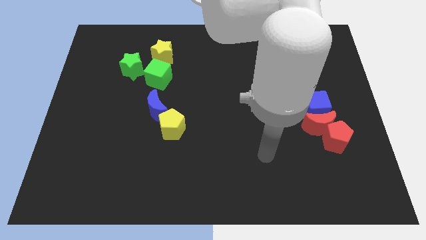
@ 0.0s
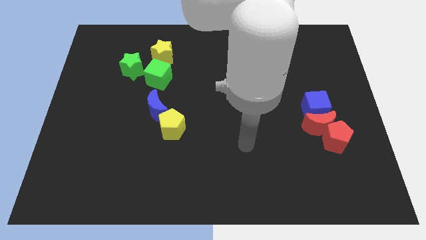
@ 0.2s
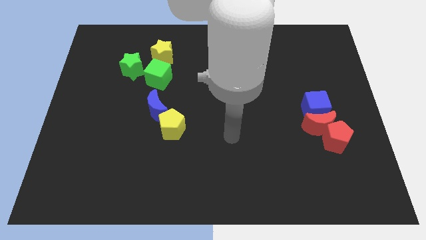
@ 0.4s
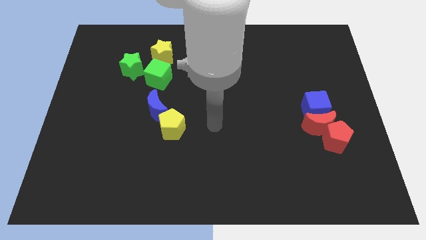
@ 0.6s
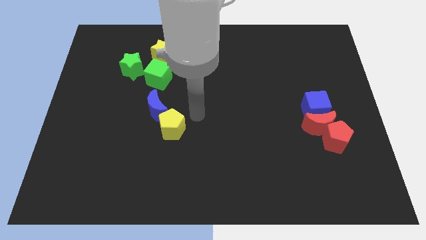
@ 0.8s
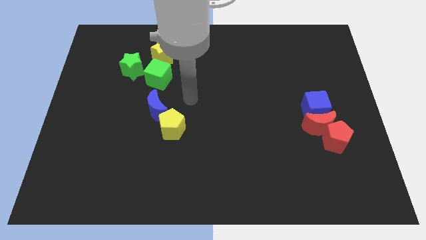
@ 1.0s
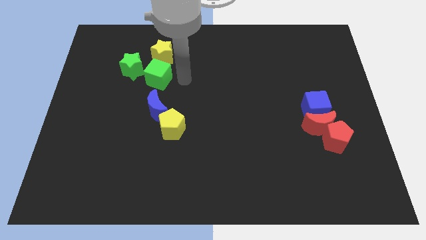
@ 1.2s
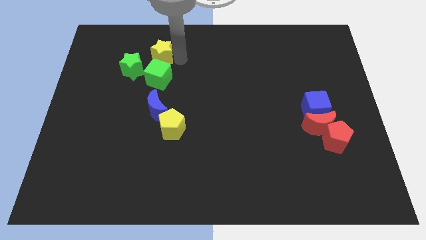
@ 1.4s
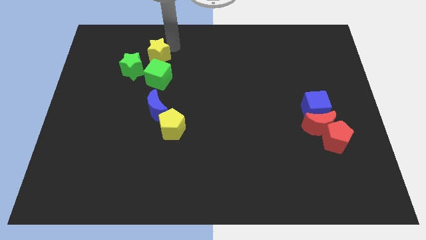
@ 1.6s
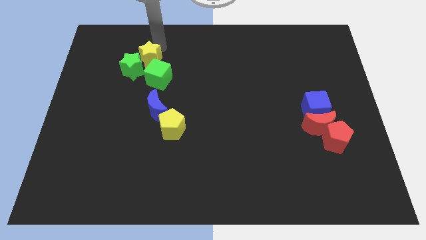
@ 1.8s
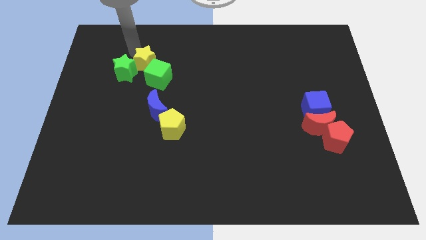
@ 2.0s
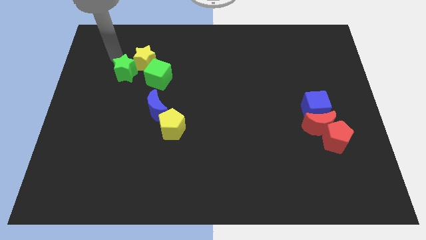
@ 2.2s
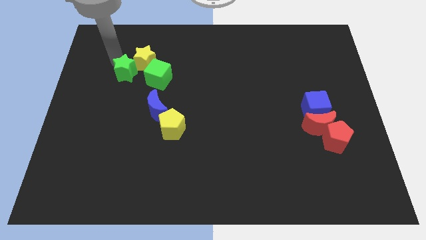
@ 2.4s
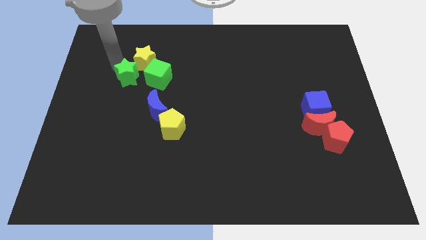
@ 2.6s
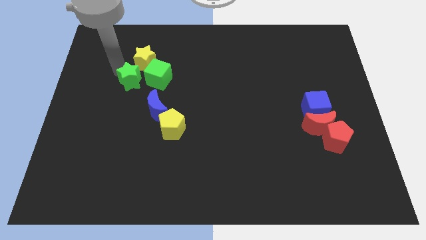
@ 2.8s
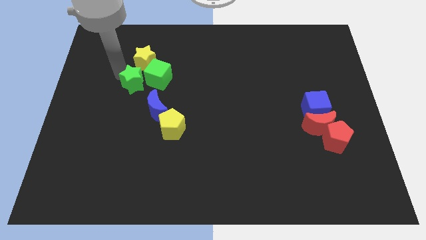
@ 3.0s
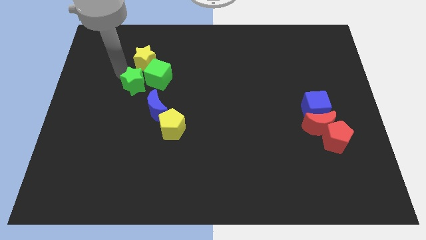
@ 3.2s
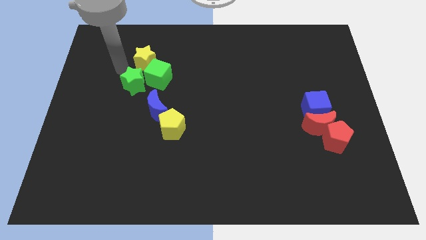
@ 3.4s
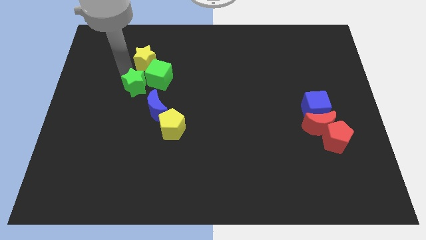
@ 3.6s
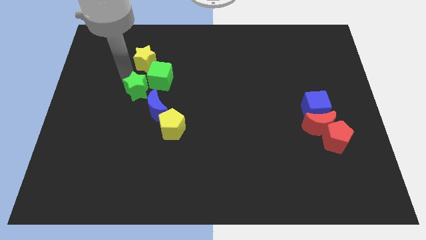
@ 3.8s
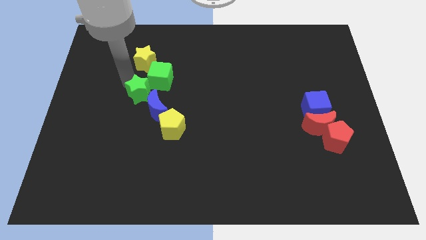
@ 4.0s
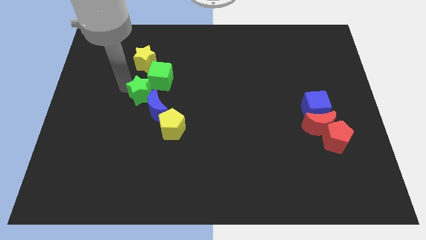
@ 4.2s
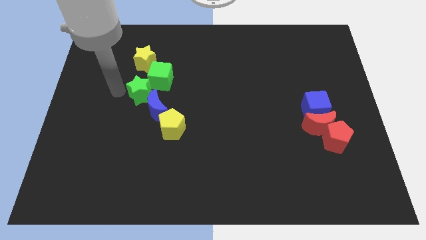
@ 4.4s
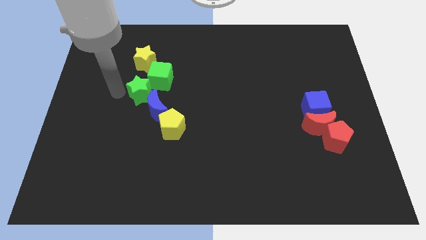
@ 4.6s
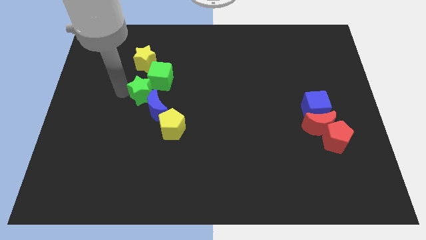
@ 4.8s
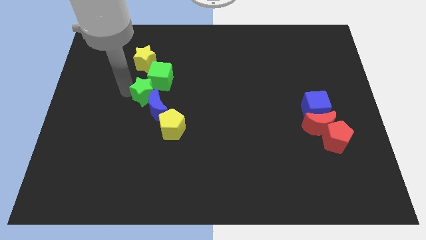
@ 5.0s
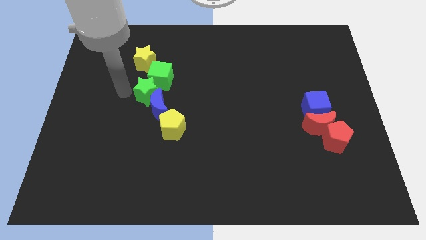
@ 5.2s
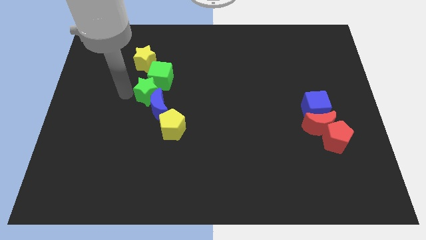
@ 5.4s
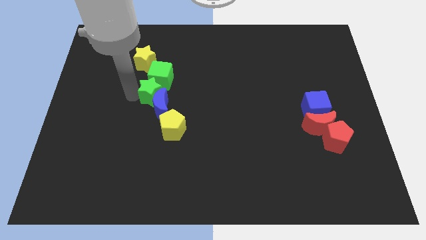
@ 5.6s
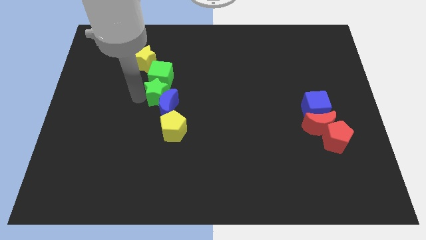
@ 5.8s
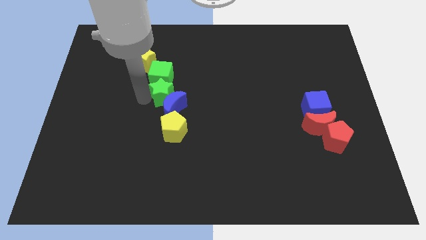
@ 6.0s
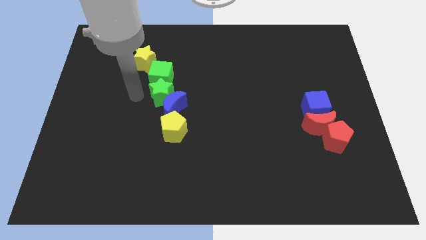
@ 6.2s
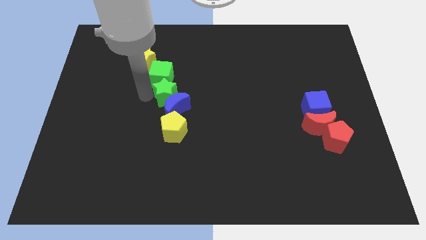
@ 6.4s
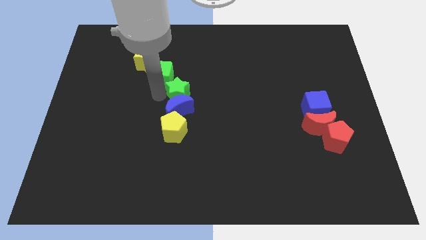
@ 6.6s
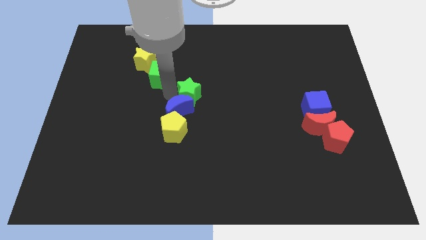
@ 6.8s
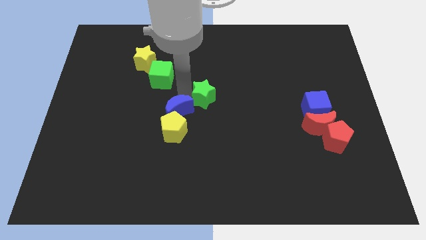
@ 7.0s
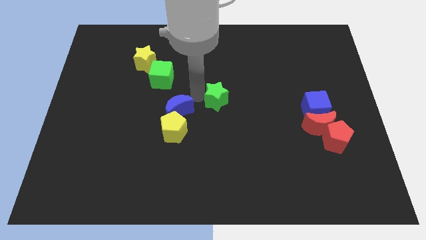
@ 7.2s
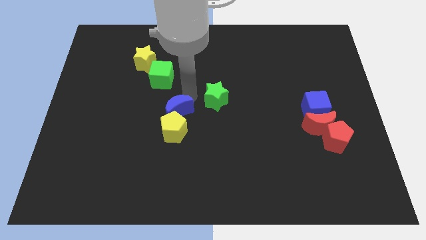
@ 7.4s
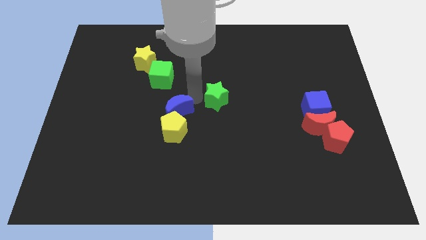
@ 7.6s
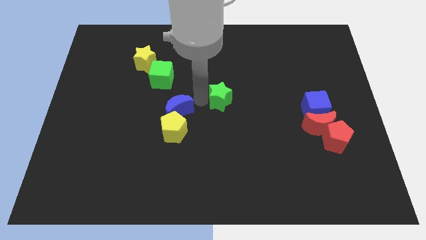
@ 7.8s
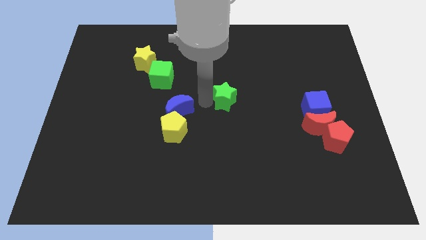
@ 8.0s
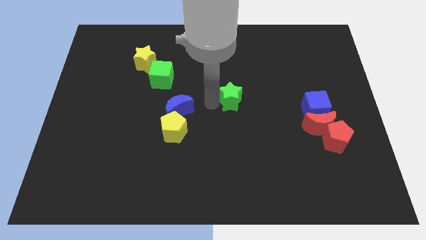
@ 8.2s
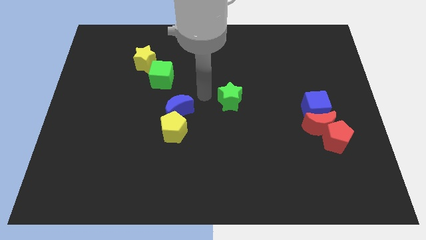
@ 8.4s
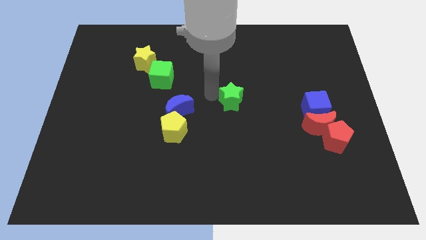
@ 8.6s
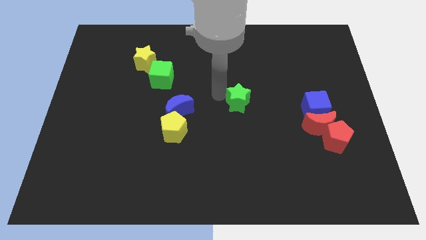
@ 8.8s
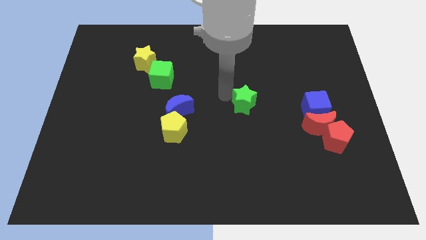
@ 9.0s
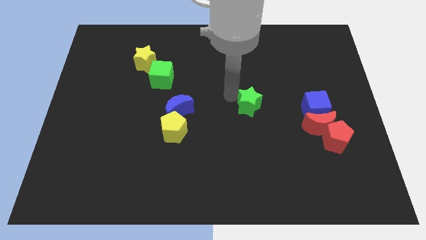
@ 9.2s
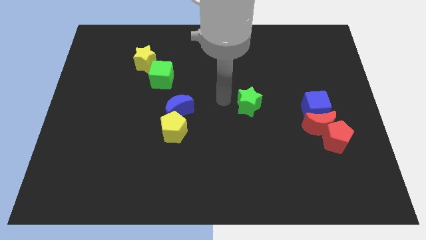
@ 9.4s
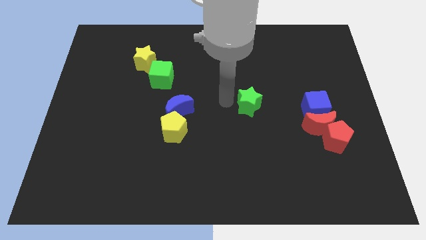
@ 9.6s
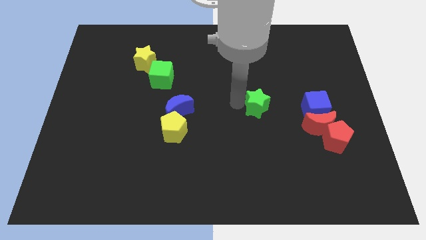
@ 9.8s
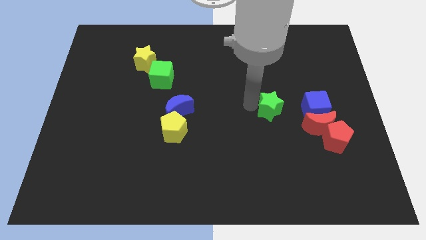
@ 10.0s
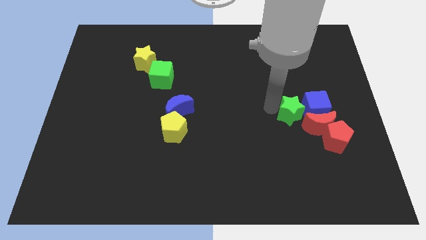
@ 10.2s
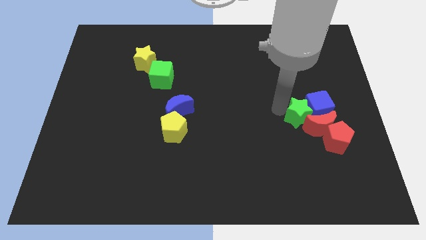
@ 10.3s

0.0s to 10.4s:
put the green star next to the red moon

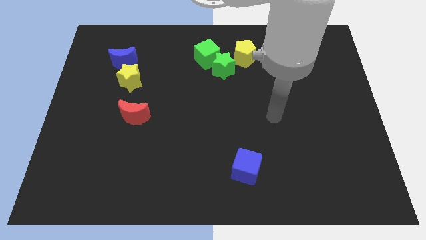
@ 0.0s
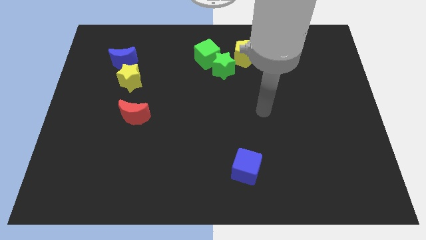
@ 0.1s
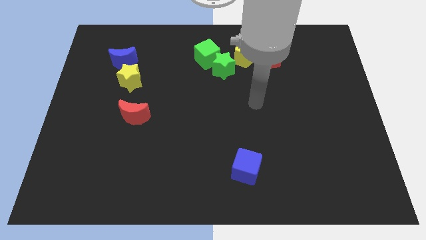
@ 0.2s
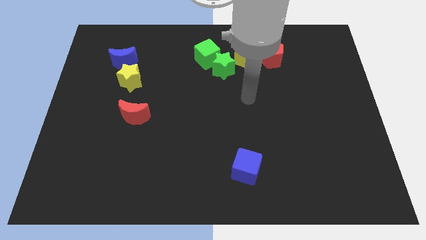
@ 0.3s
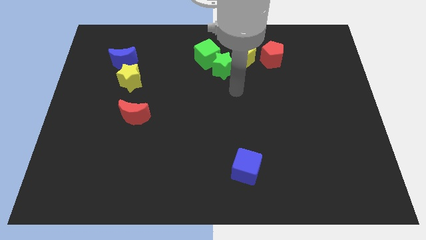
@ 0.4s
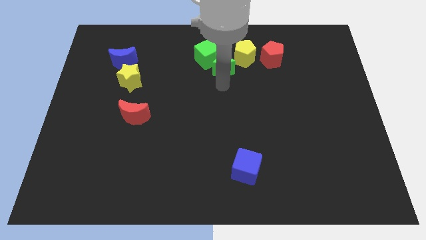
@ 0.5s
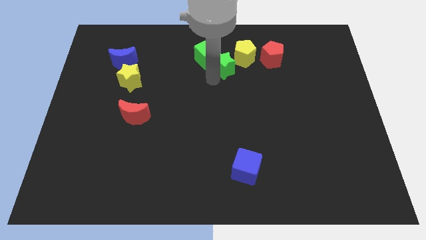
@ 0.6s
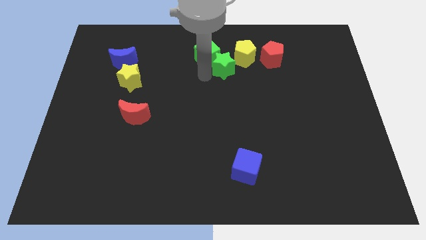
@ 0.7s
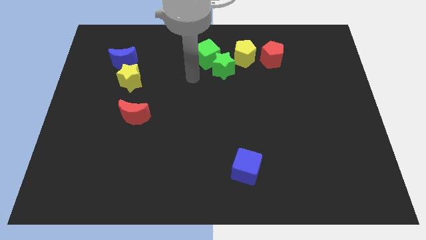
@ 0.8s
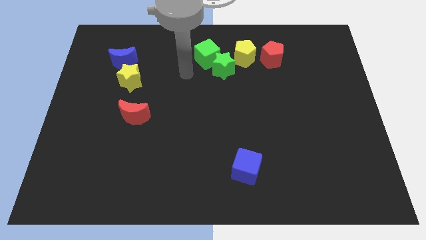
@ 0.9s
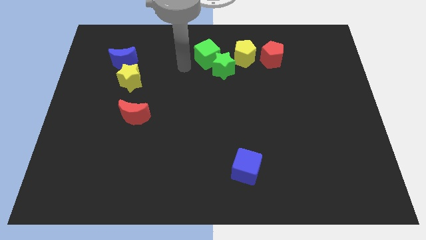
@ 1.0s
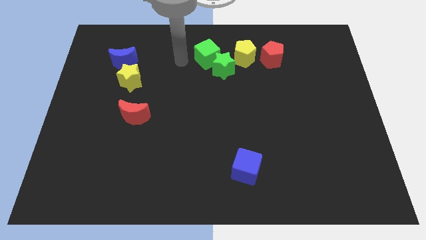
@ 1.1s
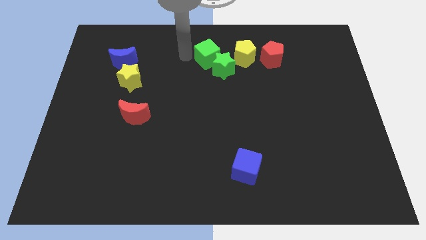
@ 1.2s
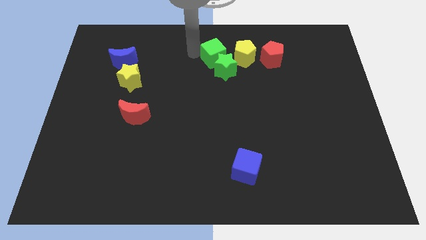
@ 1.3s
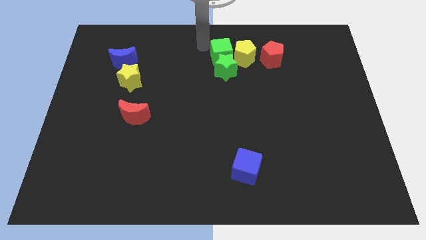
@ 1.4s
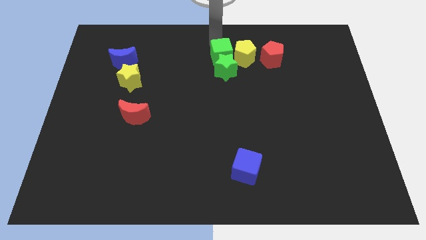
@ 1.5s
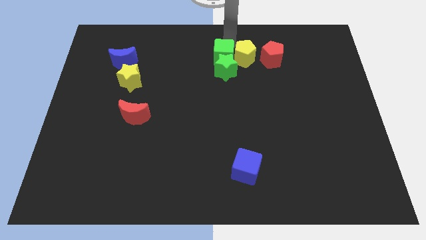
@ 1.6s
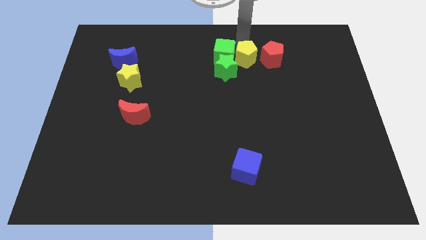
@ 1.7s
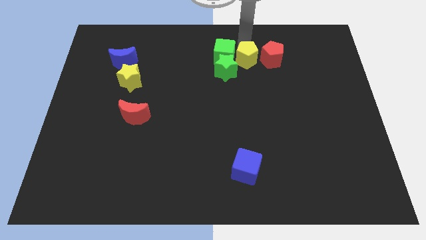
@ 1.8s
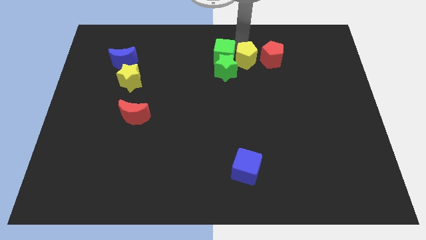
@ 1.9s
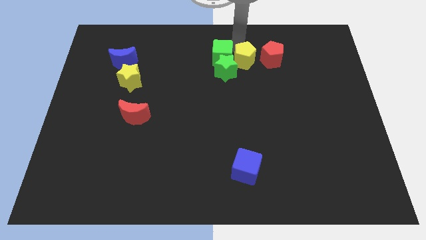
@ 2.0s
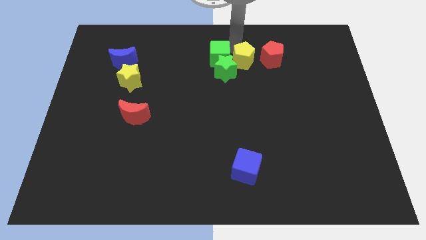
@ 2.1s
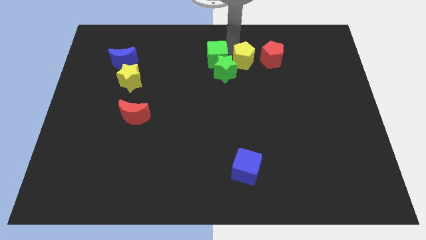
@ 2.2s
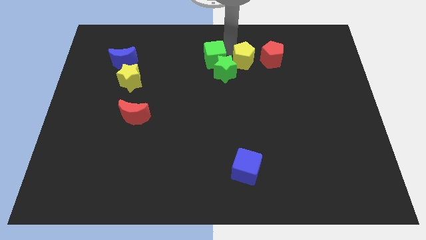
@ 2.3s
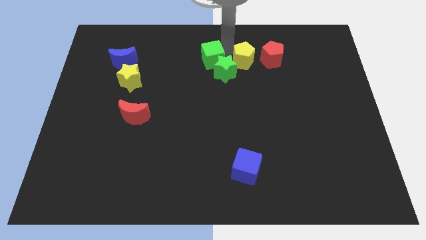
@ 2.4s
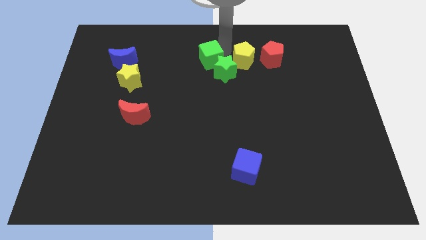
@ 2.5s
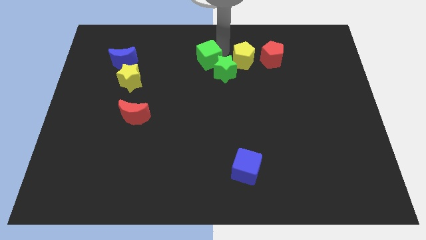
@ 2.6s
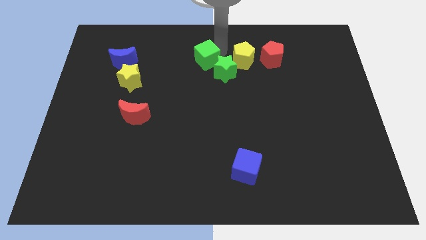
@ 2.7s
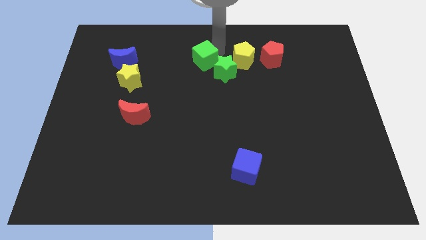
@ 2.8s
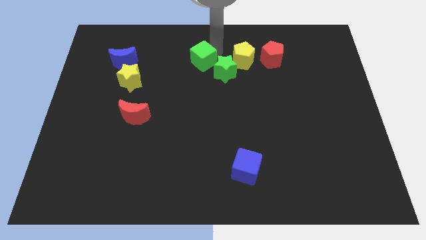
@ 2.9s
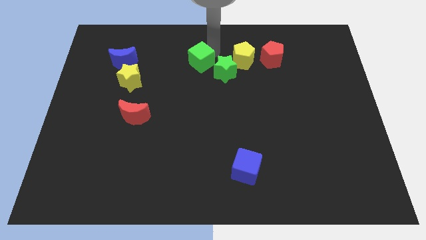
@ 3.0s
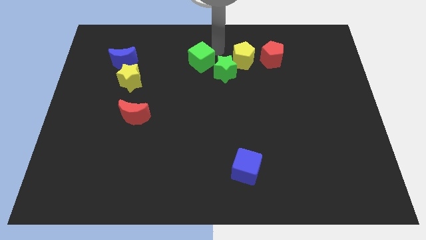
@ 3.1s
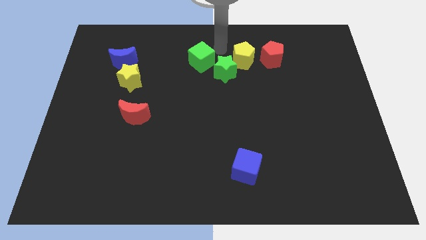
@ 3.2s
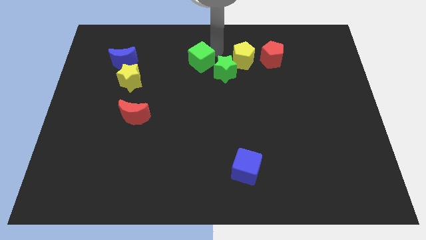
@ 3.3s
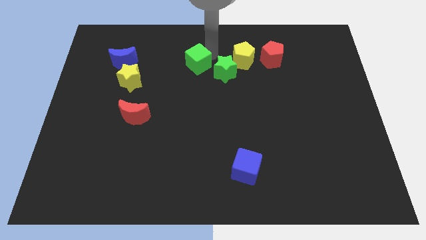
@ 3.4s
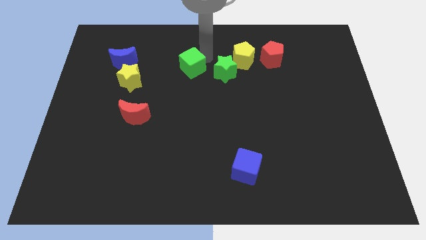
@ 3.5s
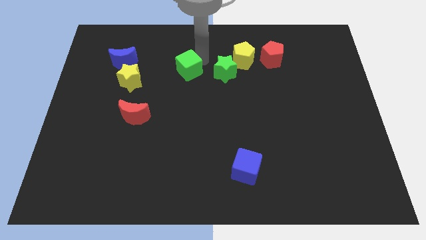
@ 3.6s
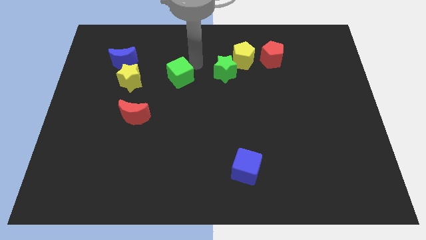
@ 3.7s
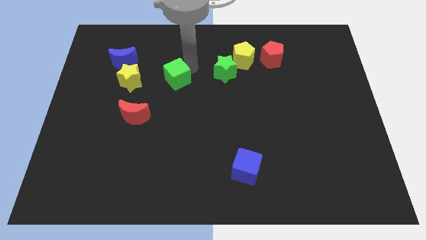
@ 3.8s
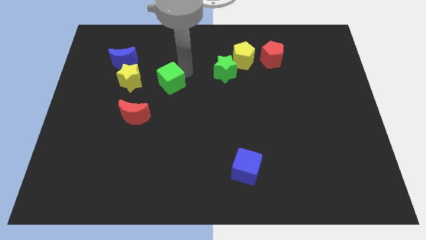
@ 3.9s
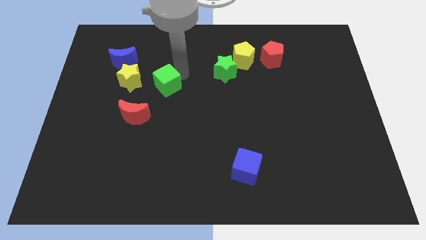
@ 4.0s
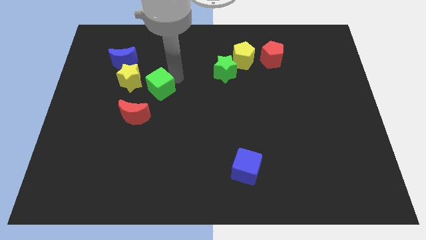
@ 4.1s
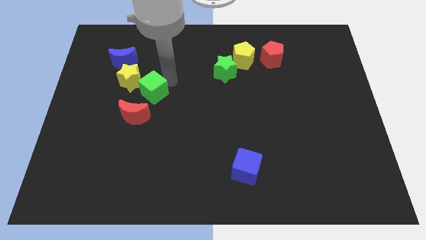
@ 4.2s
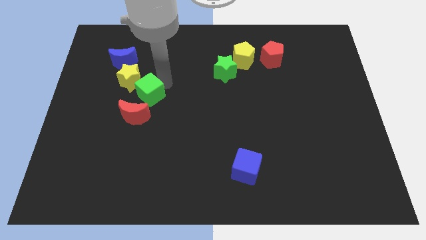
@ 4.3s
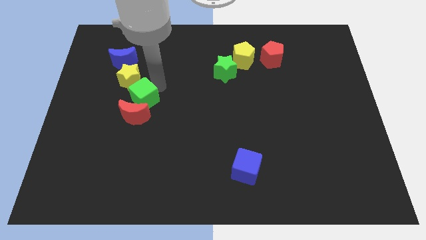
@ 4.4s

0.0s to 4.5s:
slide the green cube towards the red moon
